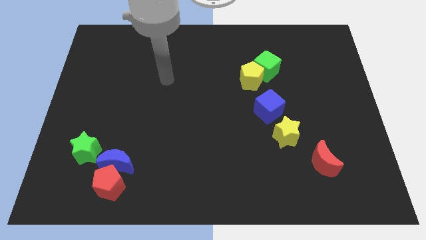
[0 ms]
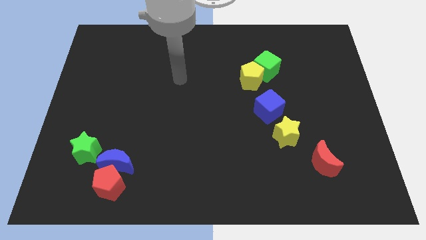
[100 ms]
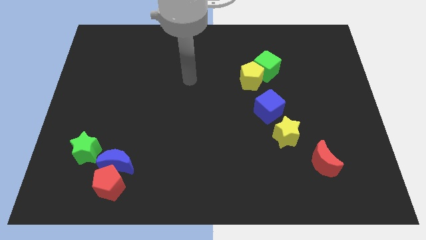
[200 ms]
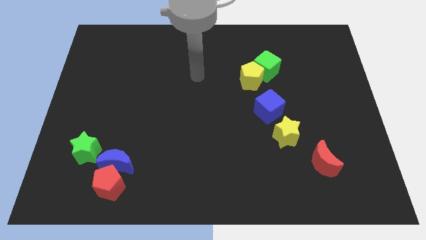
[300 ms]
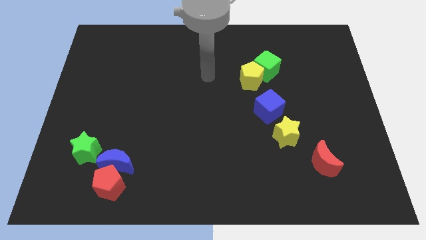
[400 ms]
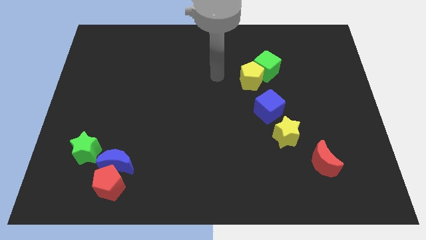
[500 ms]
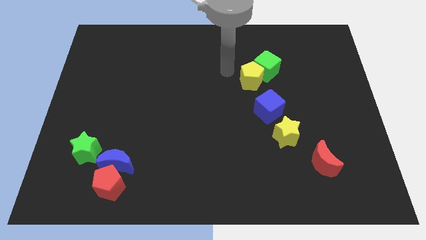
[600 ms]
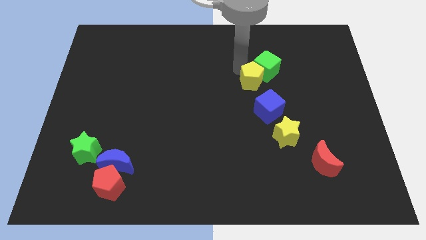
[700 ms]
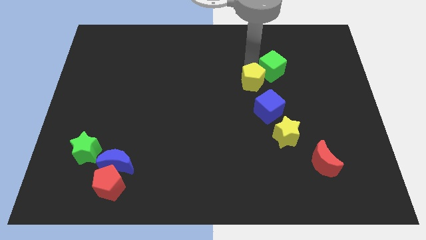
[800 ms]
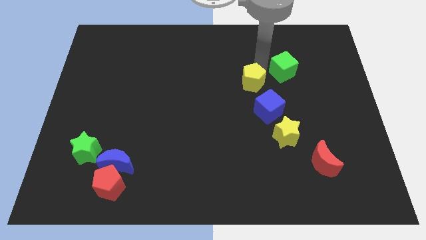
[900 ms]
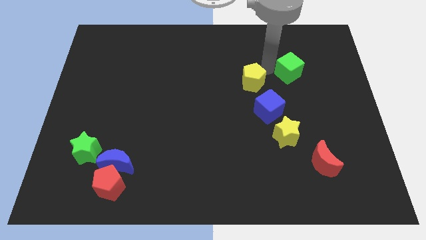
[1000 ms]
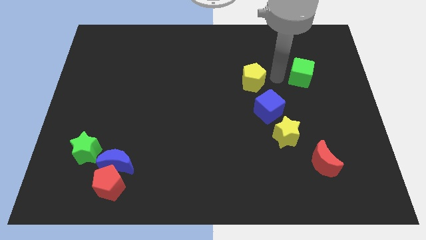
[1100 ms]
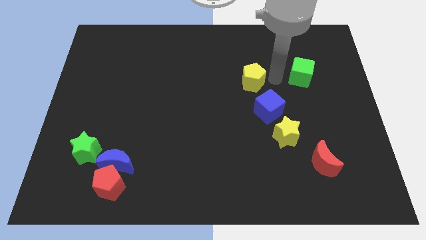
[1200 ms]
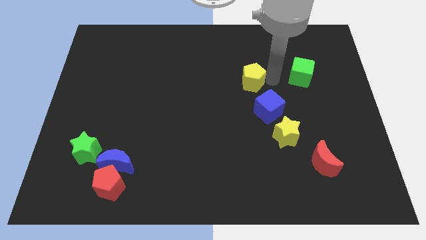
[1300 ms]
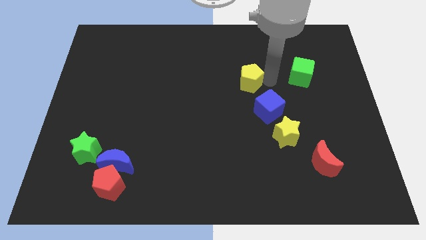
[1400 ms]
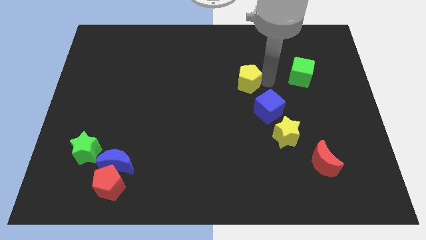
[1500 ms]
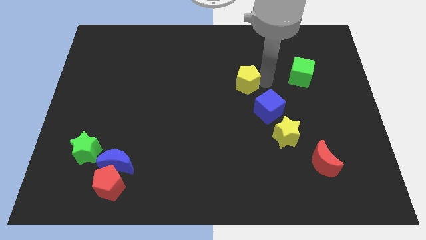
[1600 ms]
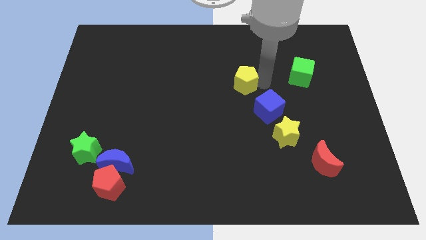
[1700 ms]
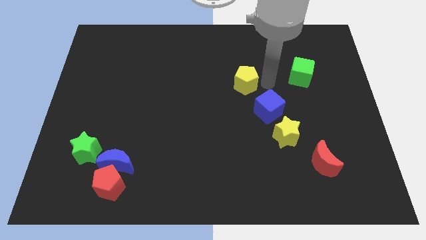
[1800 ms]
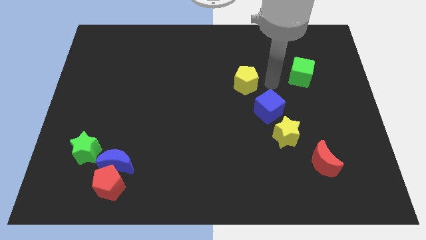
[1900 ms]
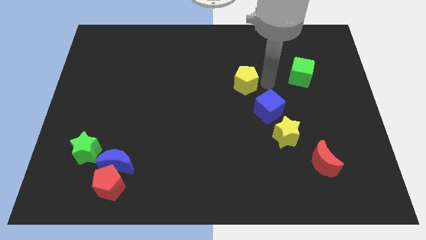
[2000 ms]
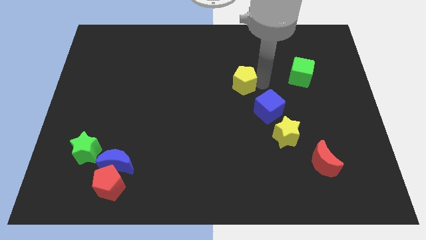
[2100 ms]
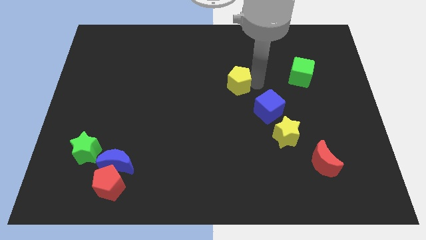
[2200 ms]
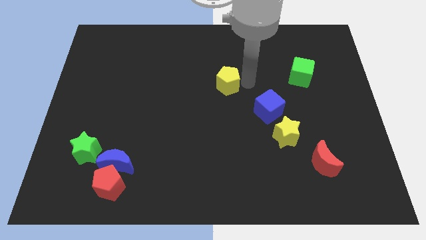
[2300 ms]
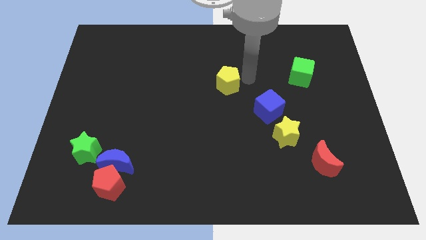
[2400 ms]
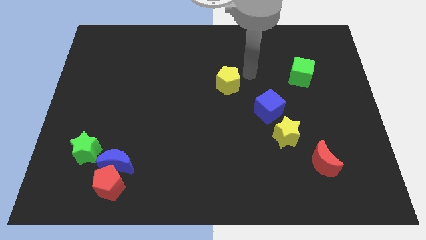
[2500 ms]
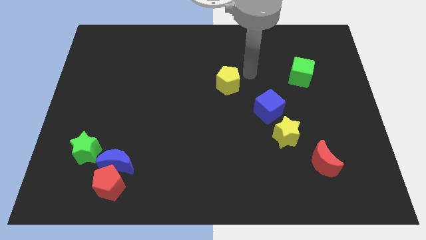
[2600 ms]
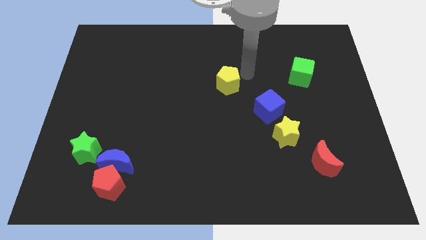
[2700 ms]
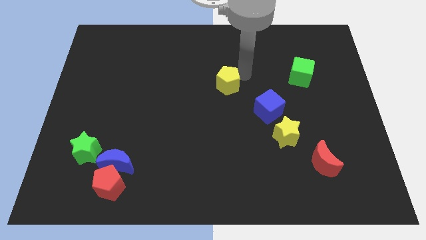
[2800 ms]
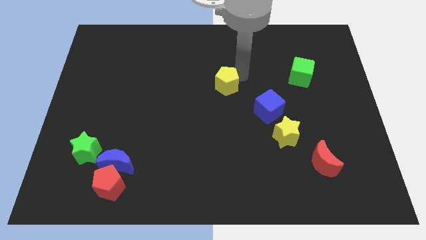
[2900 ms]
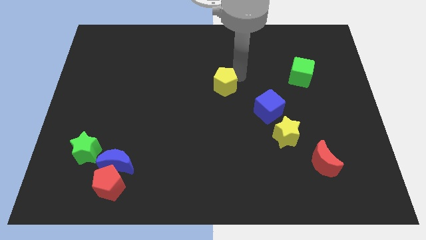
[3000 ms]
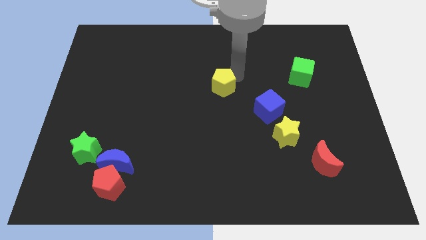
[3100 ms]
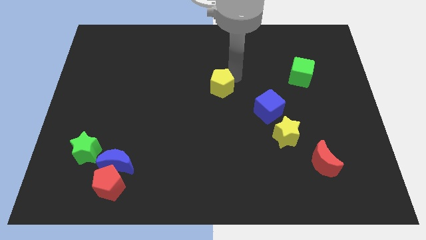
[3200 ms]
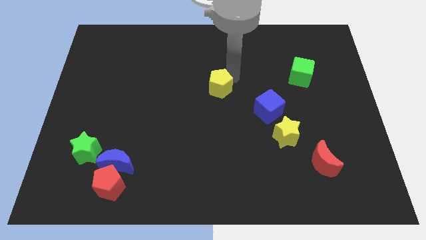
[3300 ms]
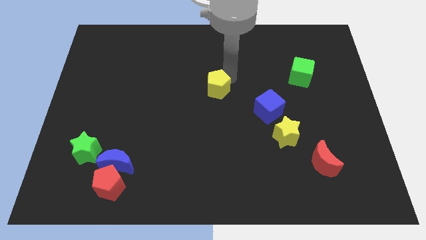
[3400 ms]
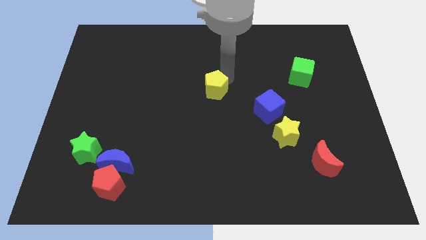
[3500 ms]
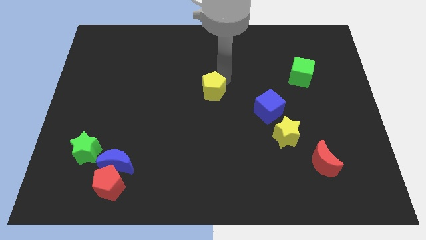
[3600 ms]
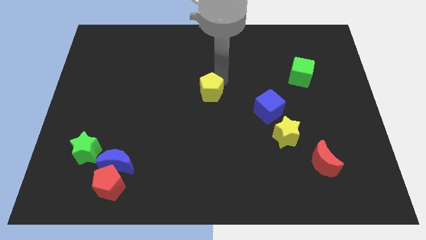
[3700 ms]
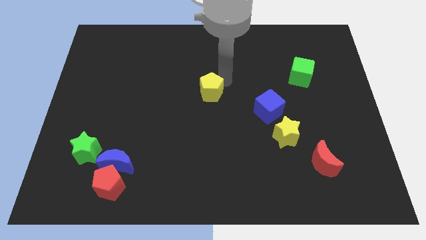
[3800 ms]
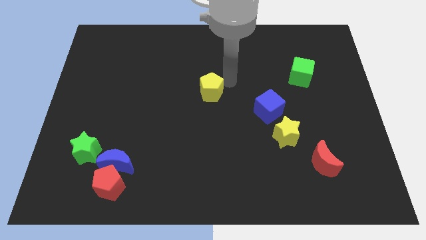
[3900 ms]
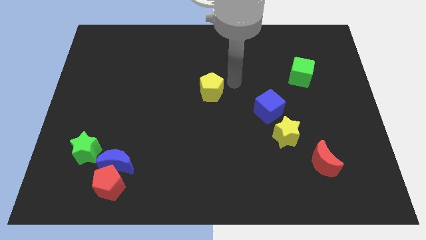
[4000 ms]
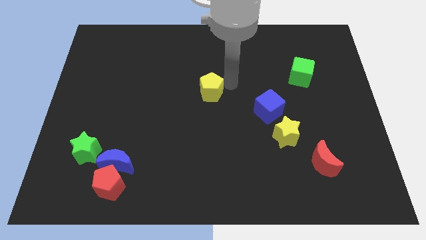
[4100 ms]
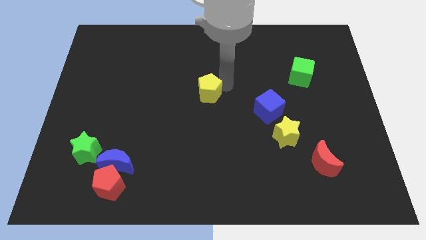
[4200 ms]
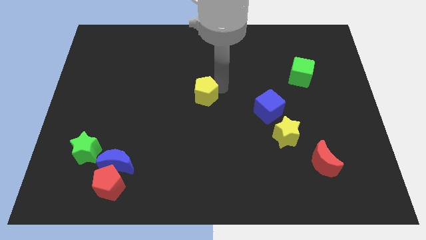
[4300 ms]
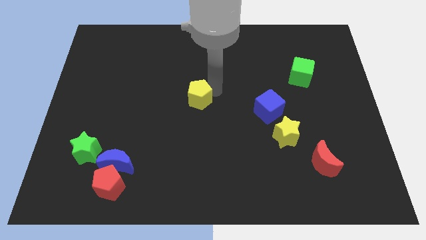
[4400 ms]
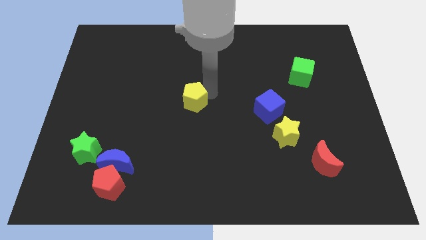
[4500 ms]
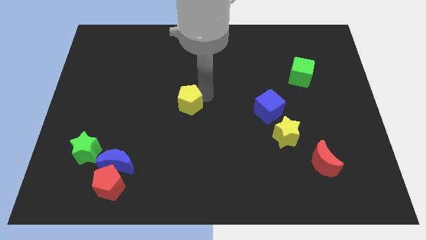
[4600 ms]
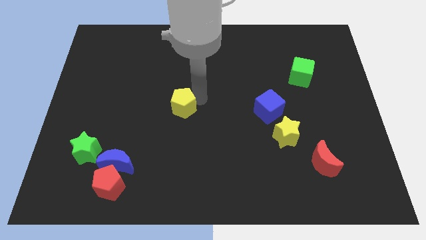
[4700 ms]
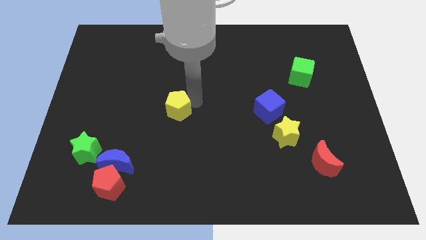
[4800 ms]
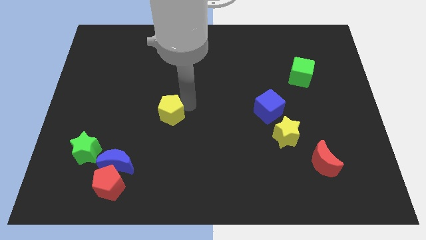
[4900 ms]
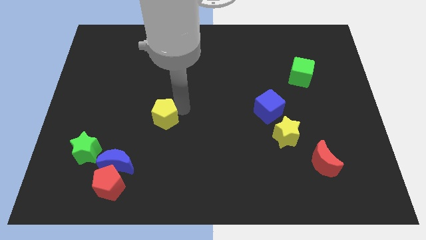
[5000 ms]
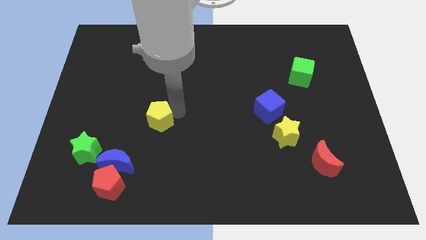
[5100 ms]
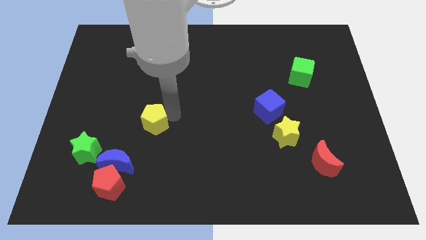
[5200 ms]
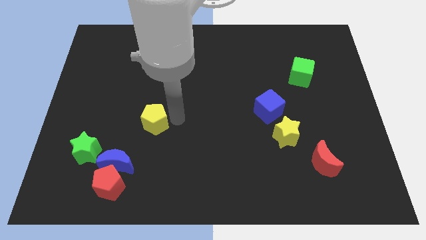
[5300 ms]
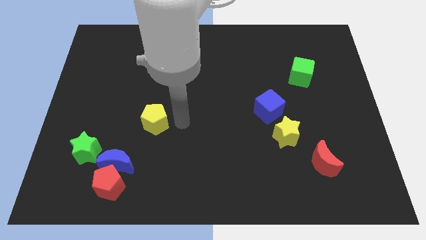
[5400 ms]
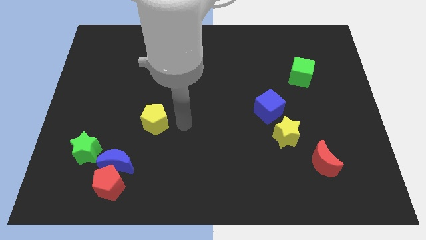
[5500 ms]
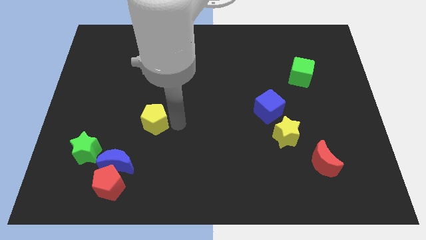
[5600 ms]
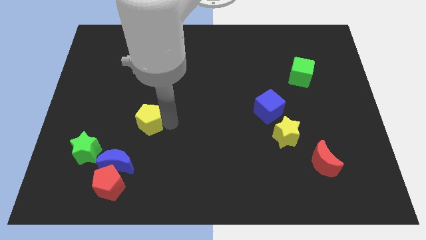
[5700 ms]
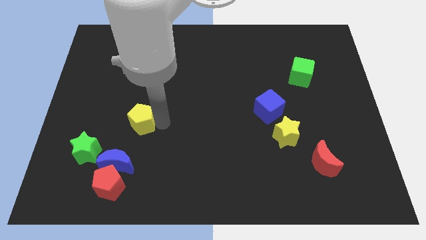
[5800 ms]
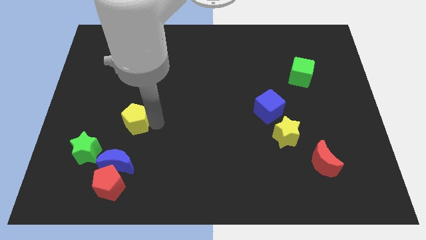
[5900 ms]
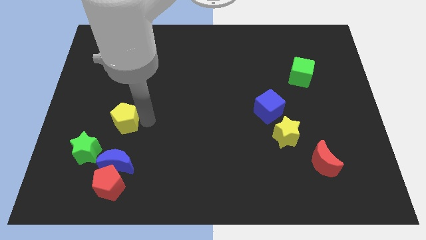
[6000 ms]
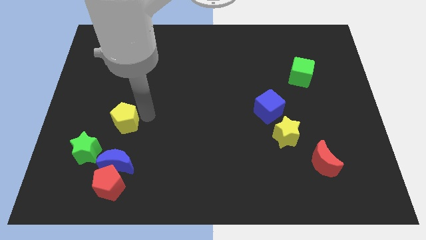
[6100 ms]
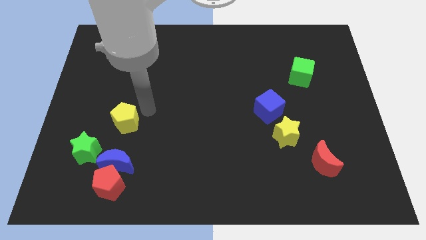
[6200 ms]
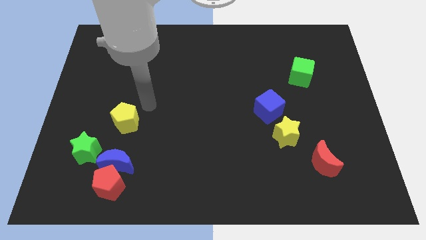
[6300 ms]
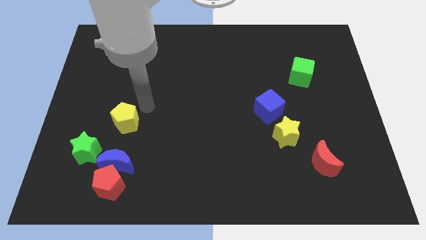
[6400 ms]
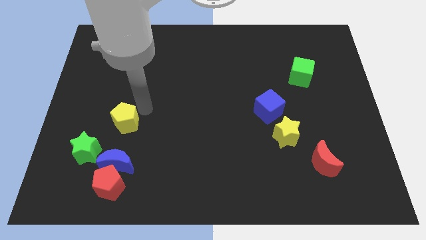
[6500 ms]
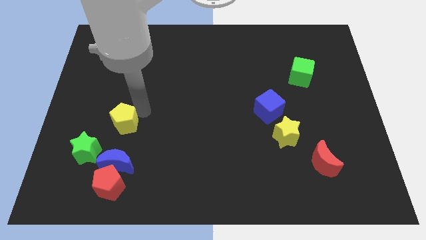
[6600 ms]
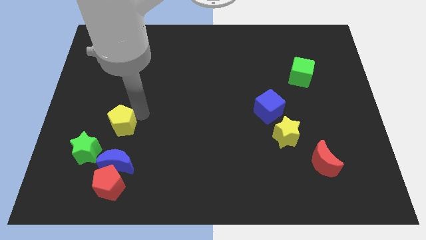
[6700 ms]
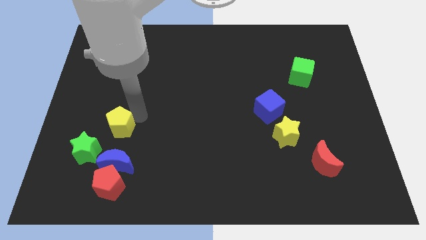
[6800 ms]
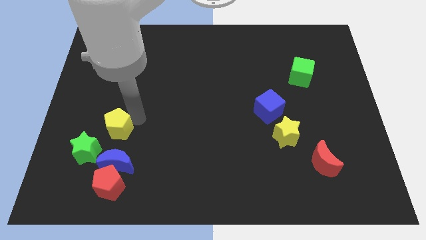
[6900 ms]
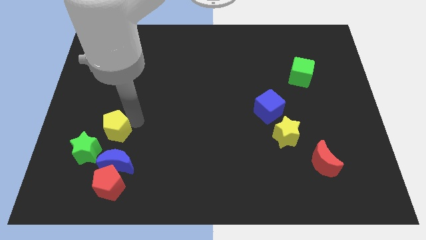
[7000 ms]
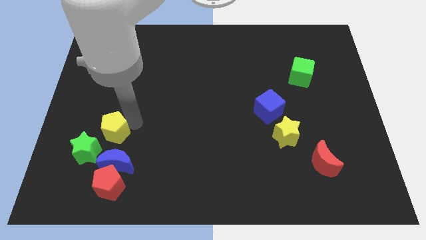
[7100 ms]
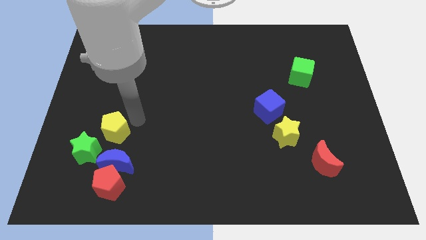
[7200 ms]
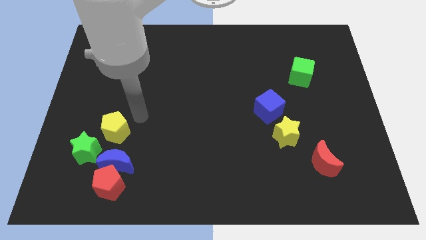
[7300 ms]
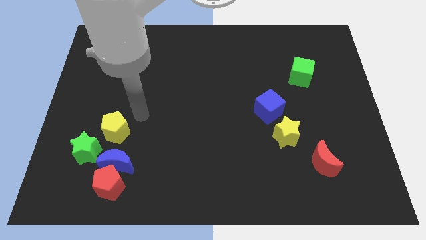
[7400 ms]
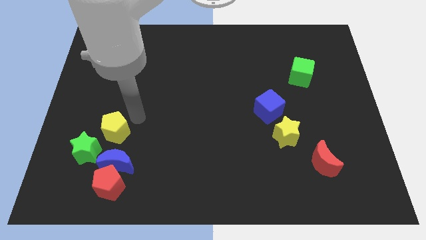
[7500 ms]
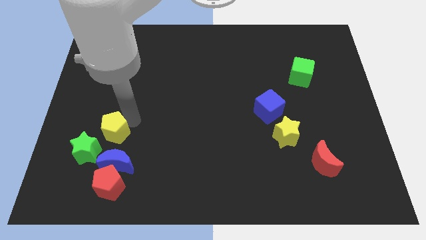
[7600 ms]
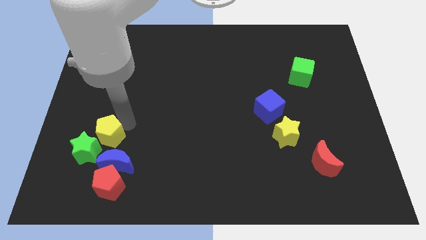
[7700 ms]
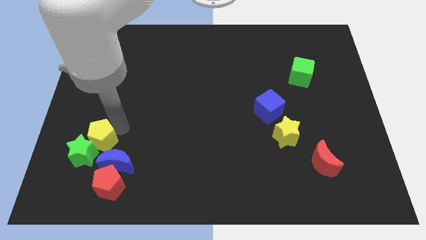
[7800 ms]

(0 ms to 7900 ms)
put the yellow pentagon towards the green star
